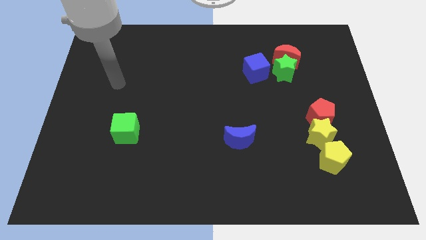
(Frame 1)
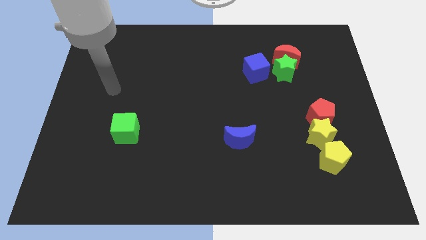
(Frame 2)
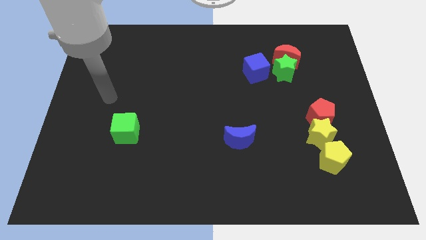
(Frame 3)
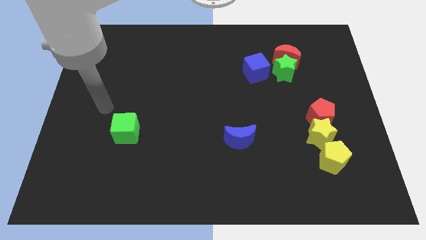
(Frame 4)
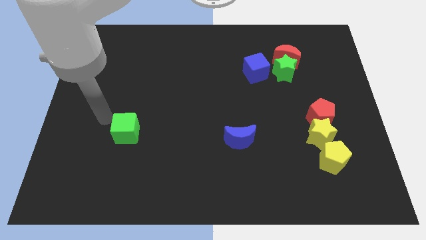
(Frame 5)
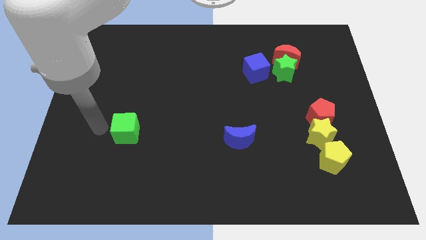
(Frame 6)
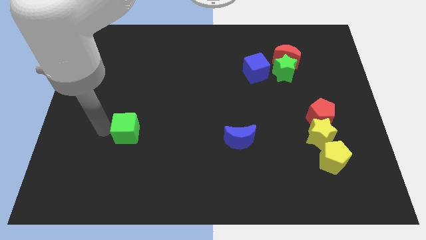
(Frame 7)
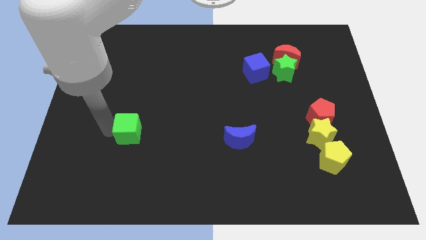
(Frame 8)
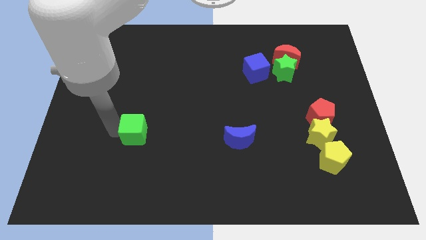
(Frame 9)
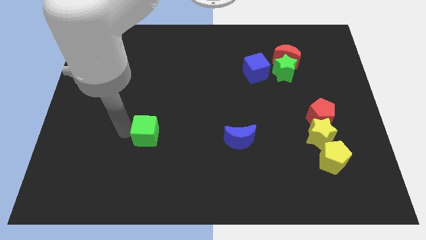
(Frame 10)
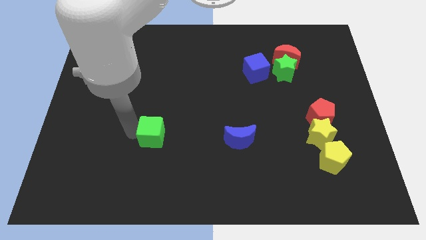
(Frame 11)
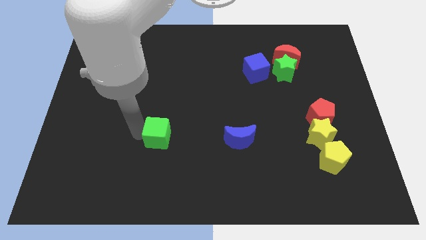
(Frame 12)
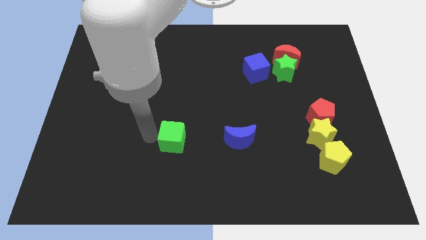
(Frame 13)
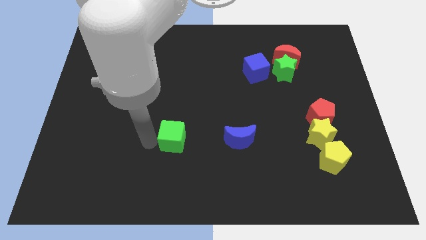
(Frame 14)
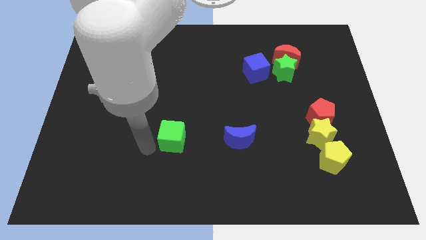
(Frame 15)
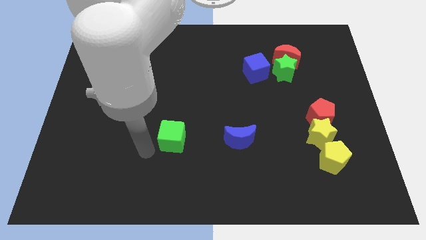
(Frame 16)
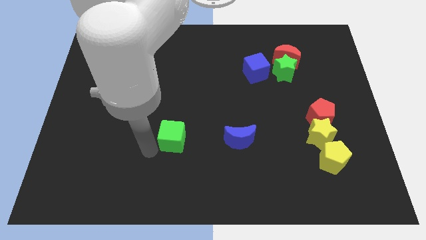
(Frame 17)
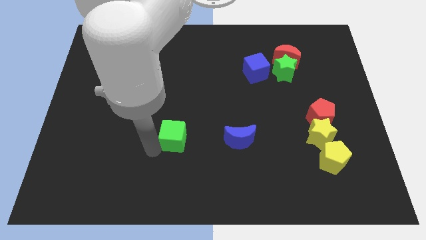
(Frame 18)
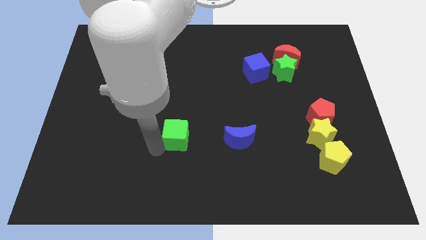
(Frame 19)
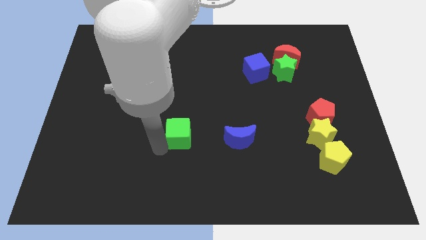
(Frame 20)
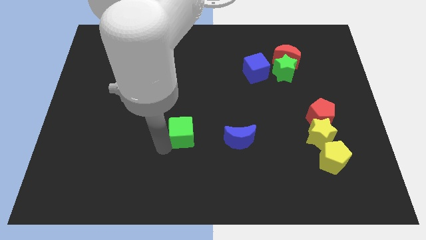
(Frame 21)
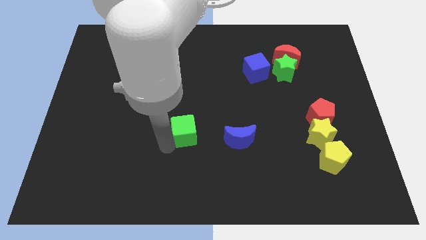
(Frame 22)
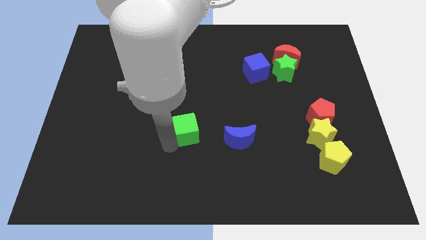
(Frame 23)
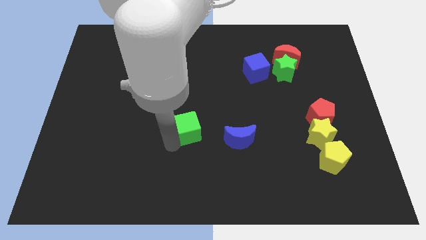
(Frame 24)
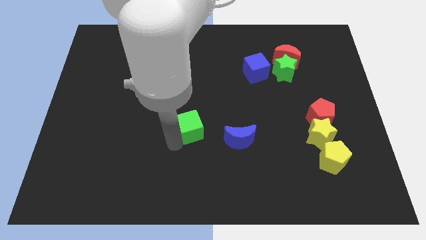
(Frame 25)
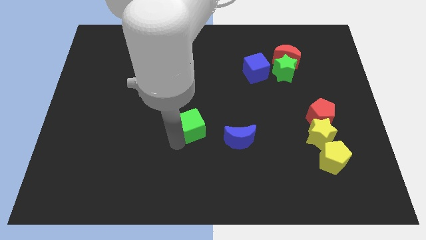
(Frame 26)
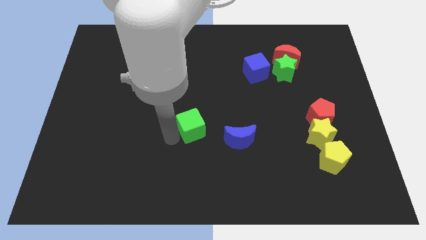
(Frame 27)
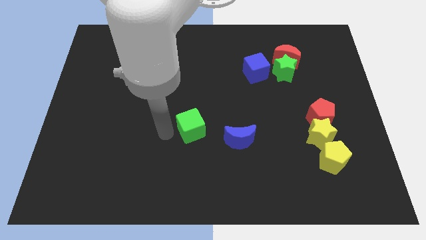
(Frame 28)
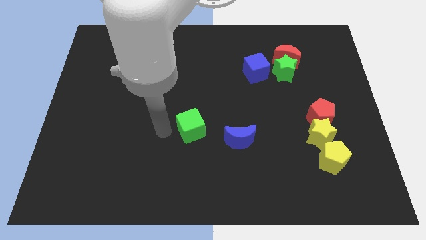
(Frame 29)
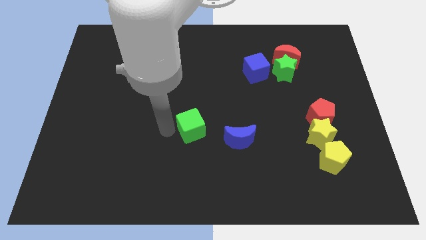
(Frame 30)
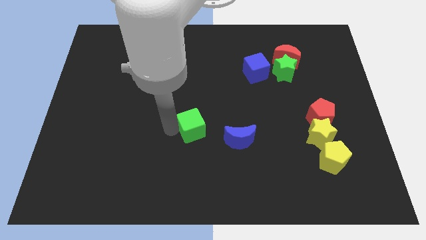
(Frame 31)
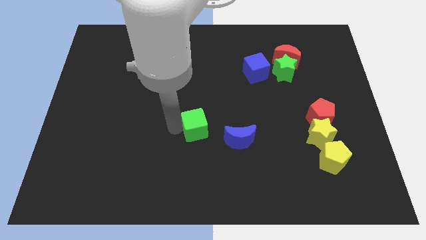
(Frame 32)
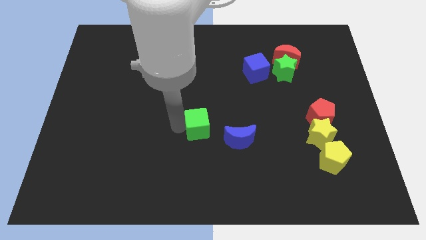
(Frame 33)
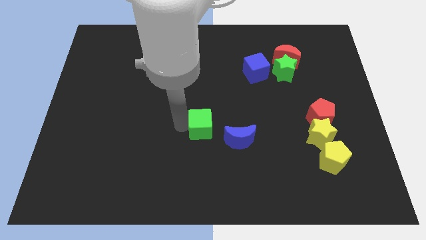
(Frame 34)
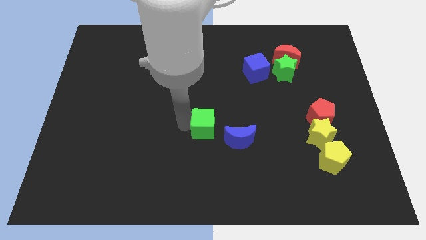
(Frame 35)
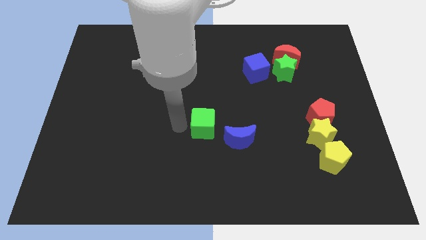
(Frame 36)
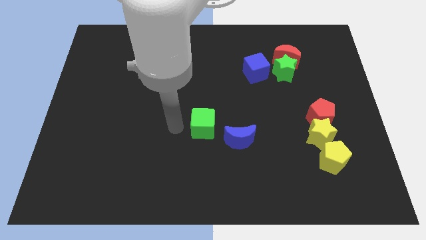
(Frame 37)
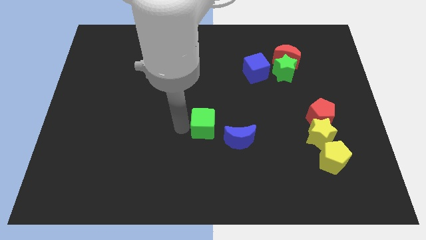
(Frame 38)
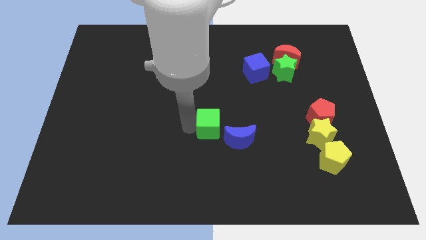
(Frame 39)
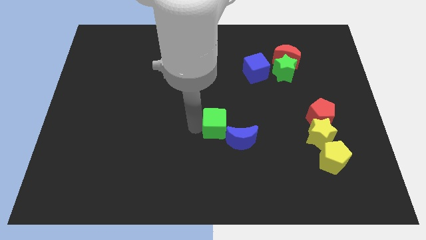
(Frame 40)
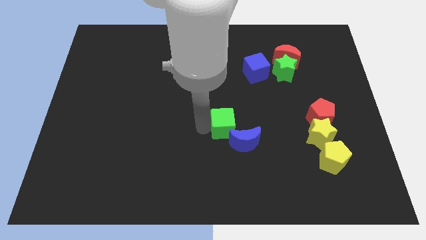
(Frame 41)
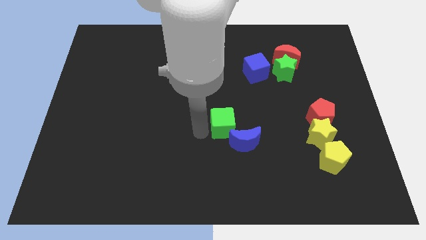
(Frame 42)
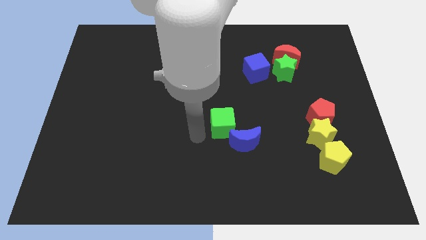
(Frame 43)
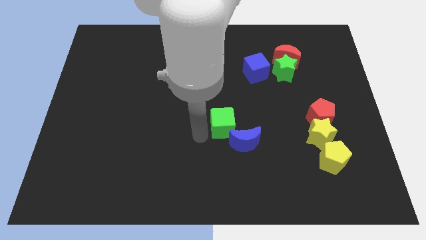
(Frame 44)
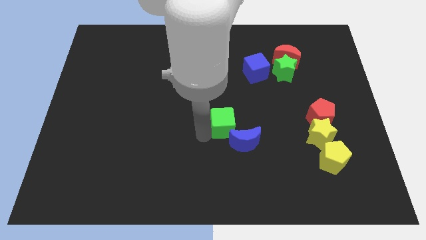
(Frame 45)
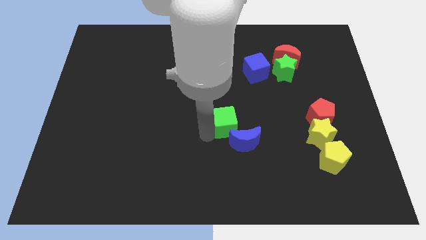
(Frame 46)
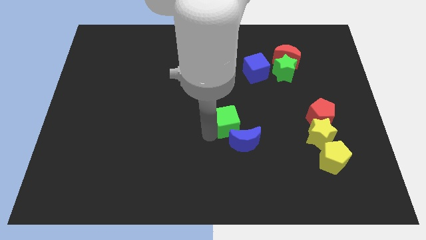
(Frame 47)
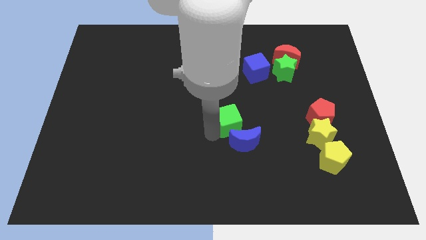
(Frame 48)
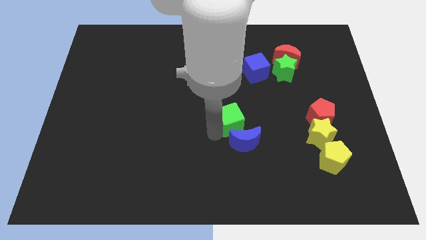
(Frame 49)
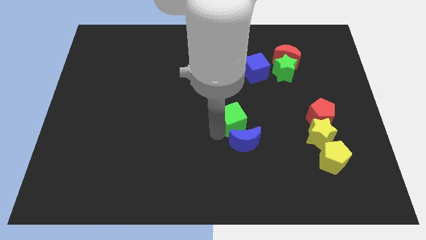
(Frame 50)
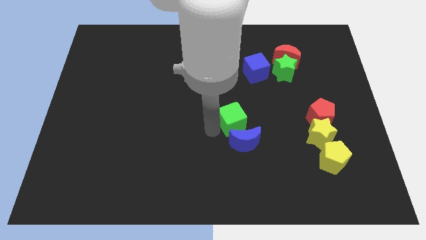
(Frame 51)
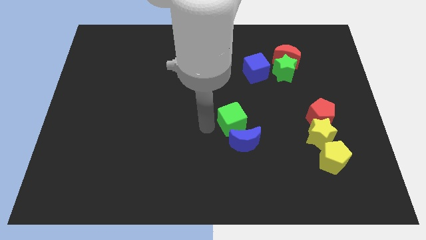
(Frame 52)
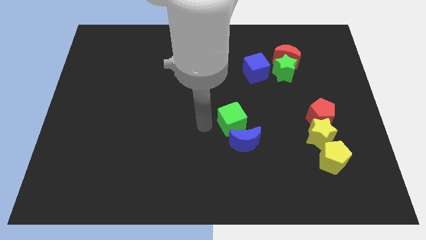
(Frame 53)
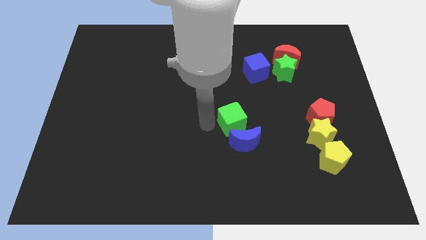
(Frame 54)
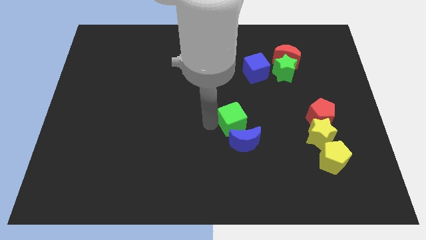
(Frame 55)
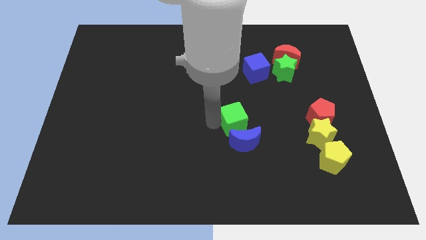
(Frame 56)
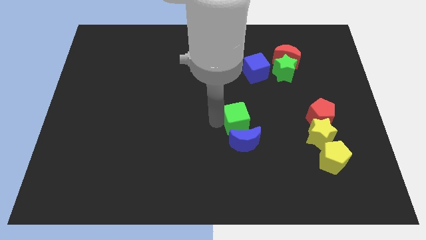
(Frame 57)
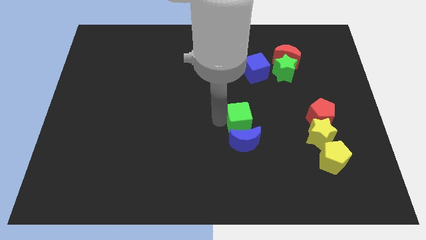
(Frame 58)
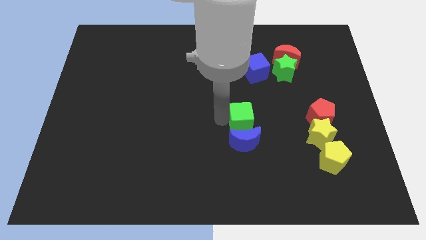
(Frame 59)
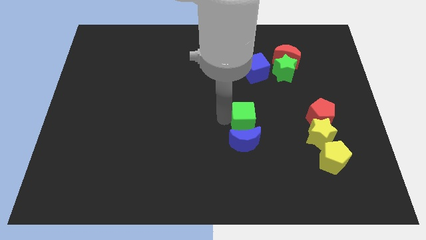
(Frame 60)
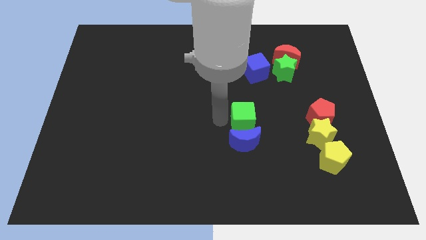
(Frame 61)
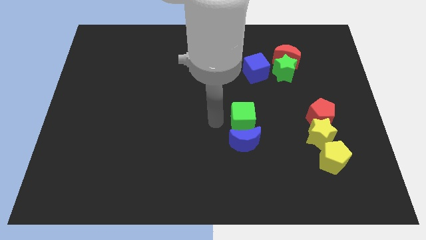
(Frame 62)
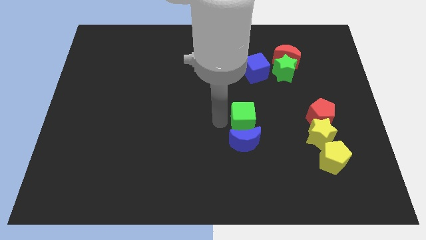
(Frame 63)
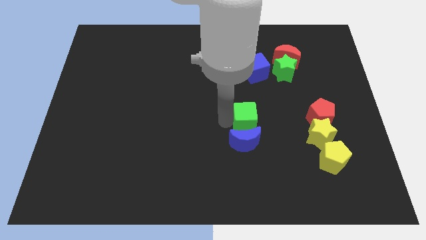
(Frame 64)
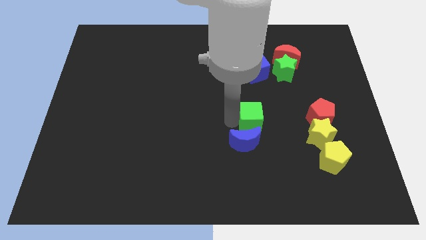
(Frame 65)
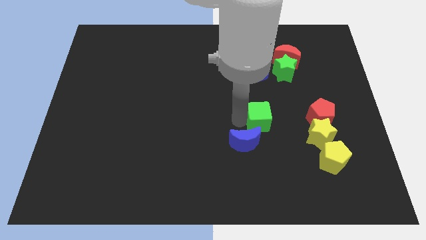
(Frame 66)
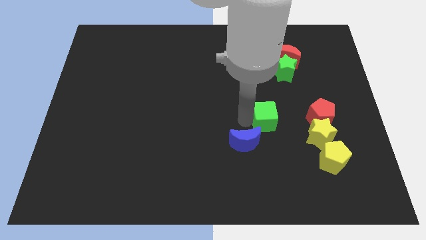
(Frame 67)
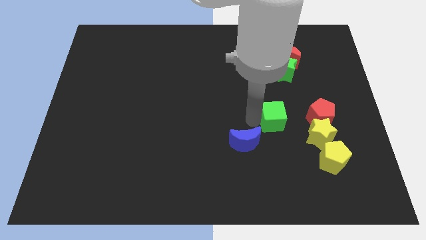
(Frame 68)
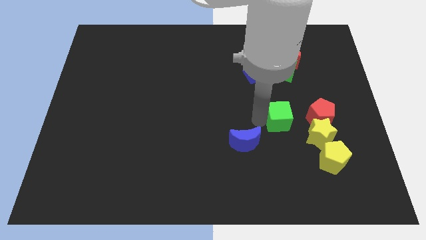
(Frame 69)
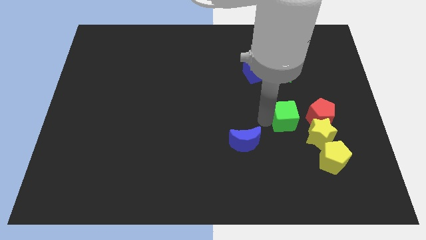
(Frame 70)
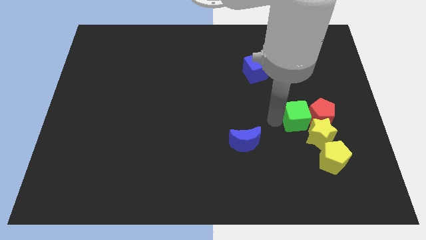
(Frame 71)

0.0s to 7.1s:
slide the green cube to the red pentagon

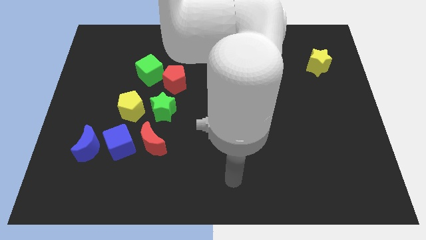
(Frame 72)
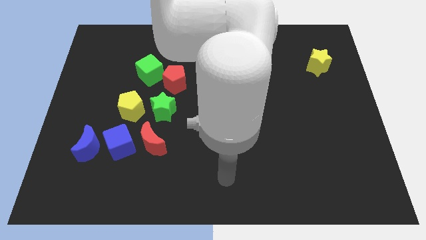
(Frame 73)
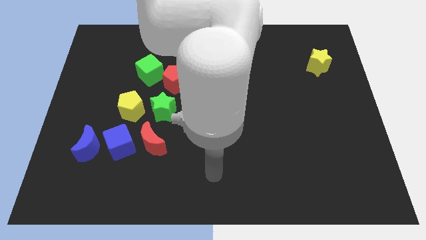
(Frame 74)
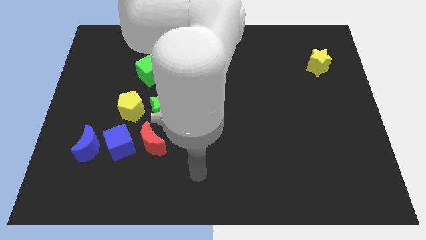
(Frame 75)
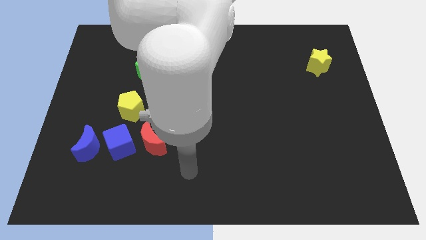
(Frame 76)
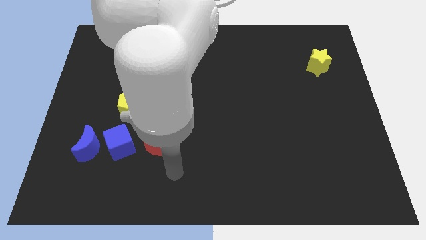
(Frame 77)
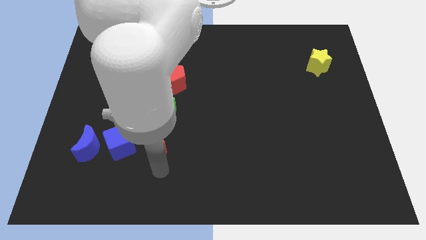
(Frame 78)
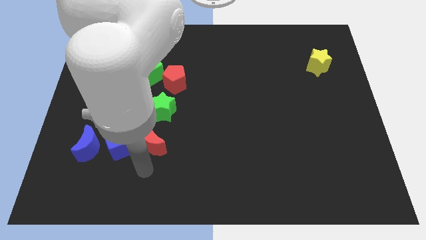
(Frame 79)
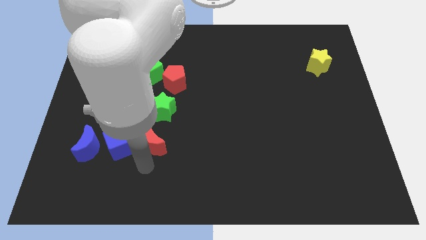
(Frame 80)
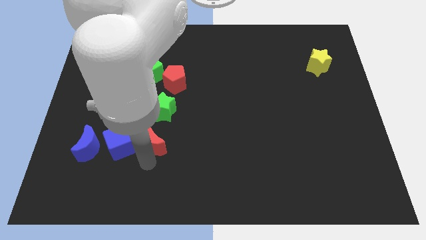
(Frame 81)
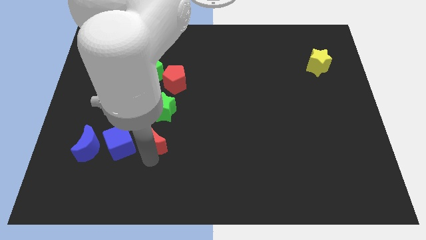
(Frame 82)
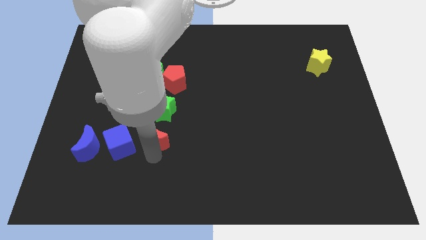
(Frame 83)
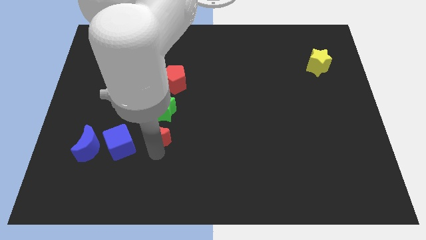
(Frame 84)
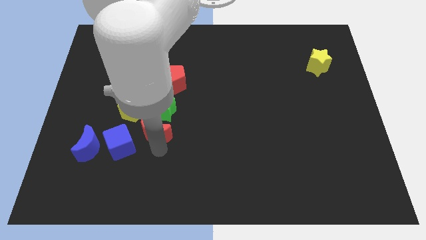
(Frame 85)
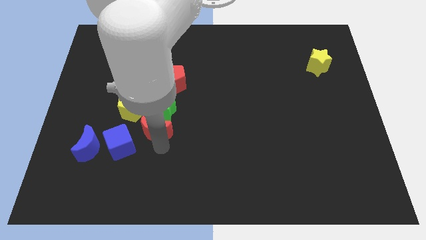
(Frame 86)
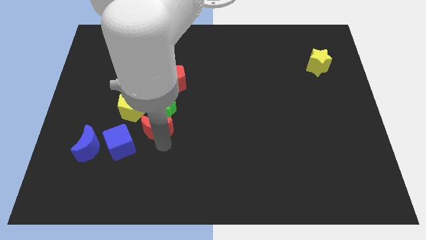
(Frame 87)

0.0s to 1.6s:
move the red moon next to the green star
